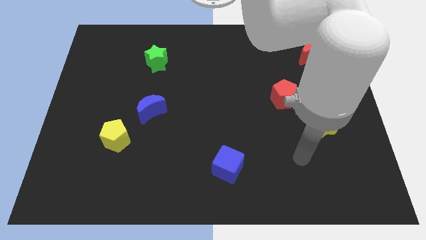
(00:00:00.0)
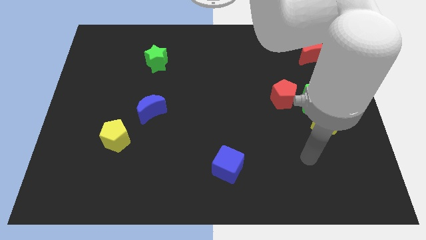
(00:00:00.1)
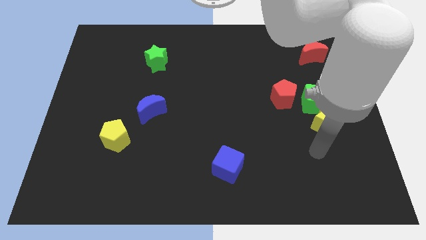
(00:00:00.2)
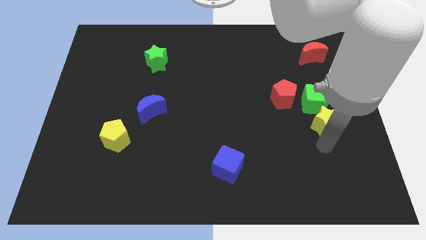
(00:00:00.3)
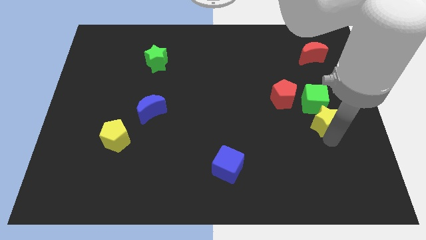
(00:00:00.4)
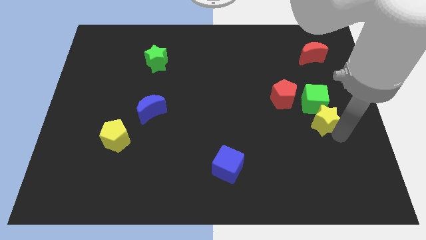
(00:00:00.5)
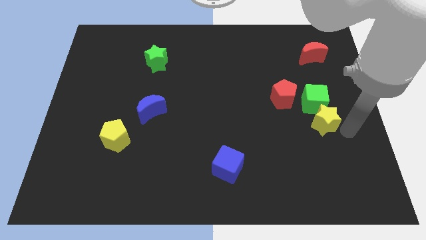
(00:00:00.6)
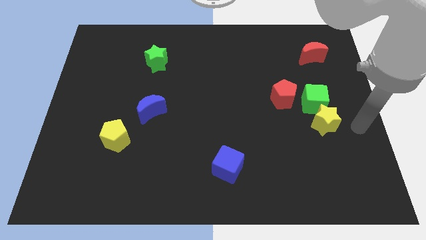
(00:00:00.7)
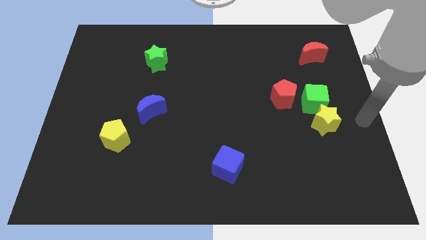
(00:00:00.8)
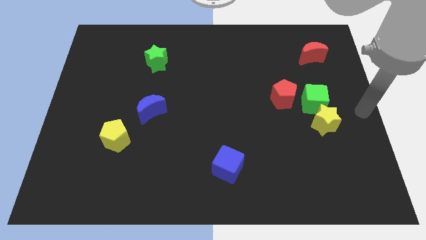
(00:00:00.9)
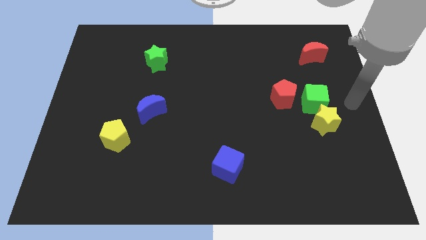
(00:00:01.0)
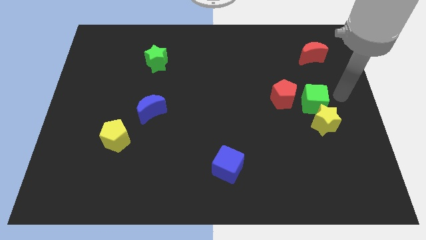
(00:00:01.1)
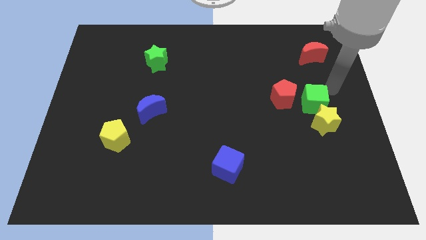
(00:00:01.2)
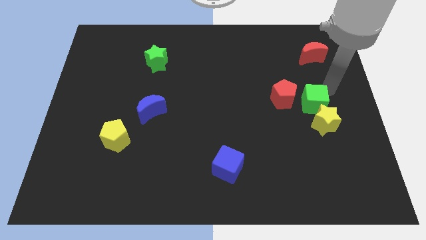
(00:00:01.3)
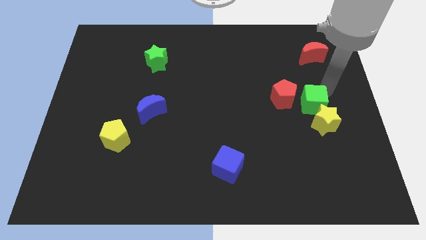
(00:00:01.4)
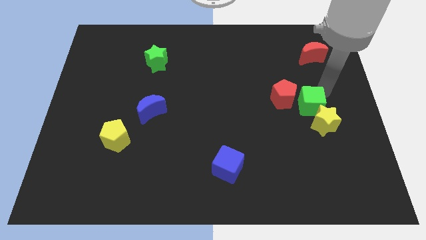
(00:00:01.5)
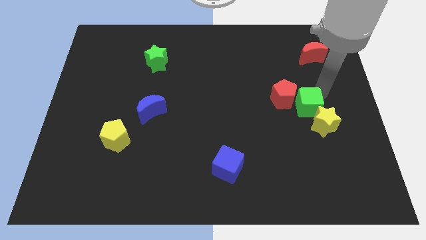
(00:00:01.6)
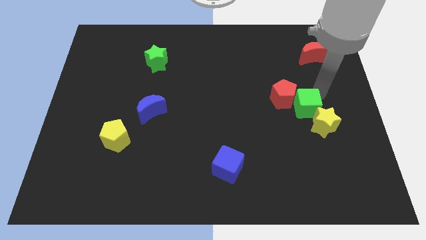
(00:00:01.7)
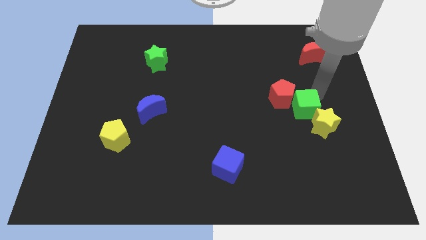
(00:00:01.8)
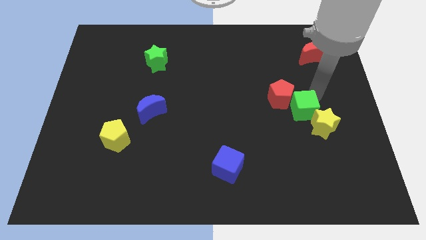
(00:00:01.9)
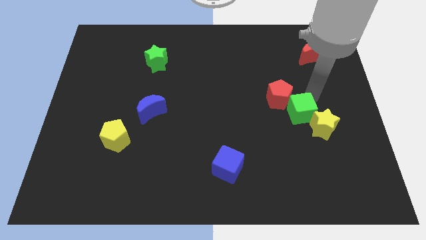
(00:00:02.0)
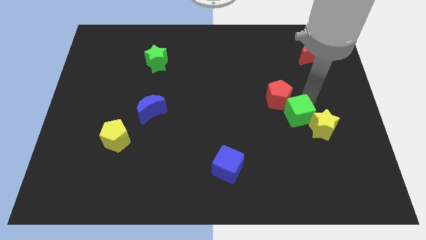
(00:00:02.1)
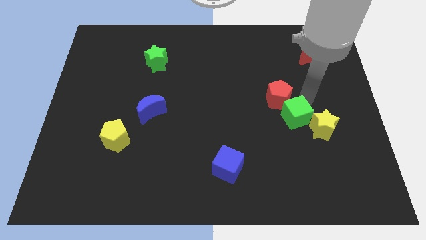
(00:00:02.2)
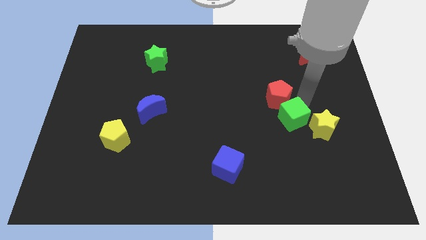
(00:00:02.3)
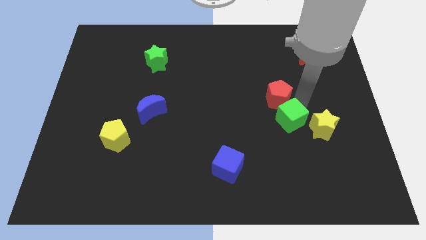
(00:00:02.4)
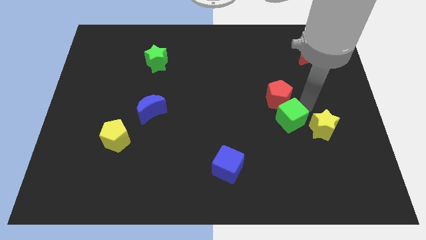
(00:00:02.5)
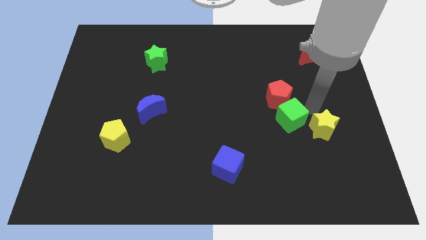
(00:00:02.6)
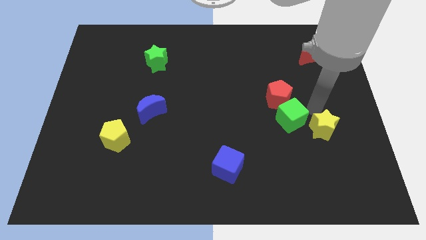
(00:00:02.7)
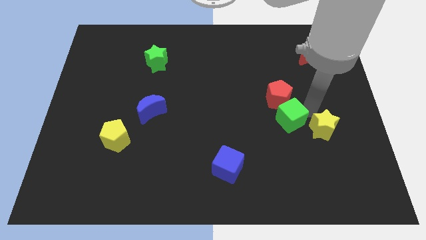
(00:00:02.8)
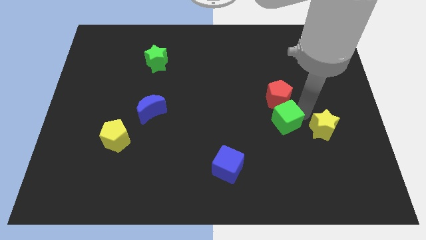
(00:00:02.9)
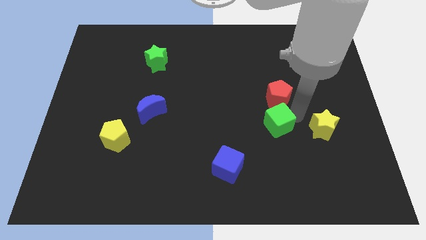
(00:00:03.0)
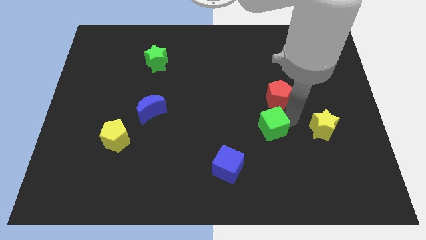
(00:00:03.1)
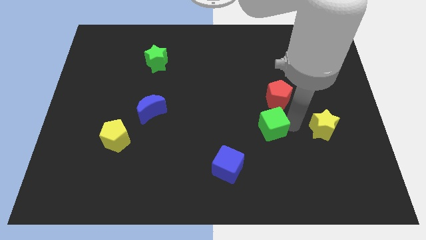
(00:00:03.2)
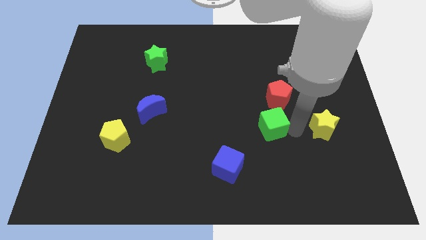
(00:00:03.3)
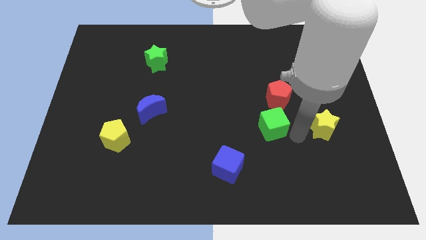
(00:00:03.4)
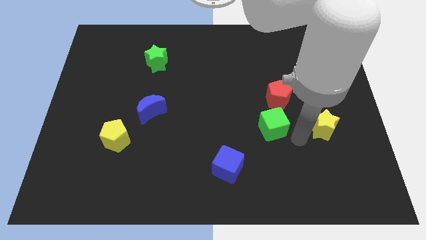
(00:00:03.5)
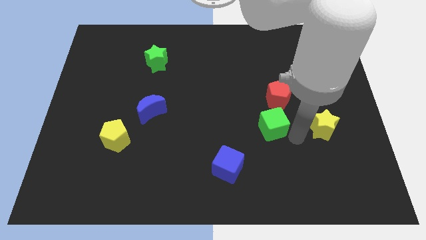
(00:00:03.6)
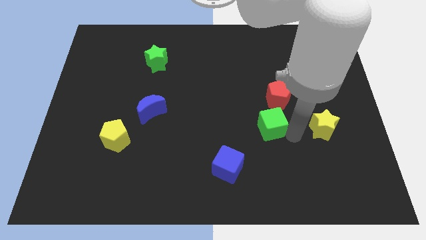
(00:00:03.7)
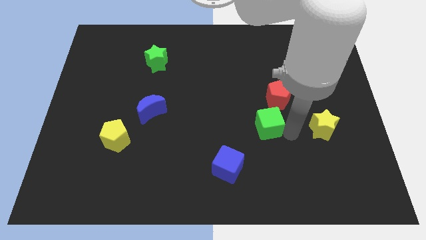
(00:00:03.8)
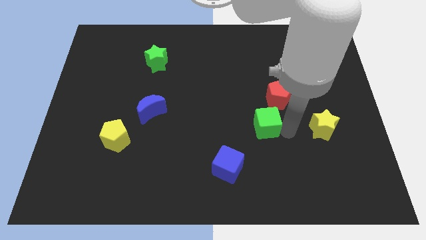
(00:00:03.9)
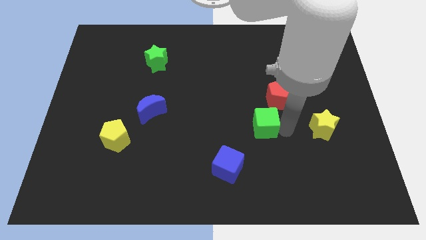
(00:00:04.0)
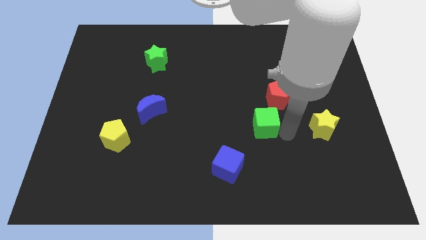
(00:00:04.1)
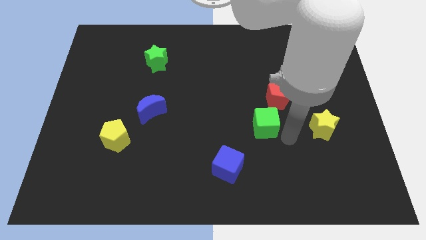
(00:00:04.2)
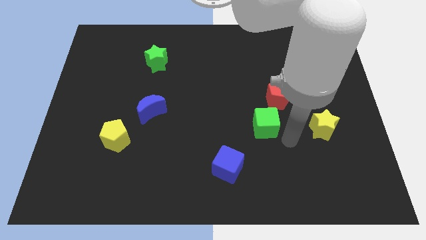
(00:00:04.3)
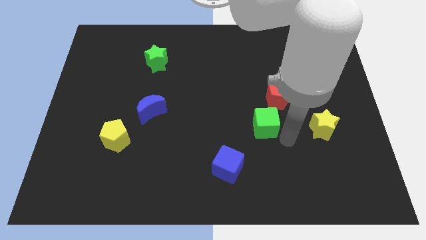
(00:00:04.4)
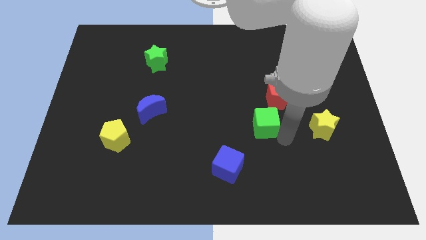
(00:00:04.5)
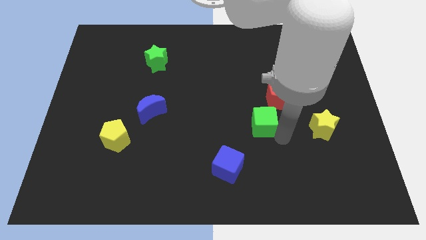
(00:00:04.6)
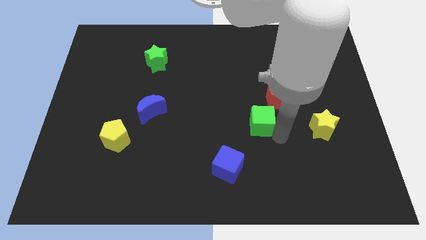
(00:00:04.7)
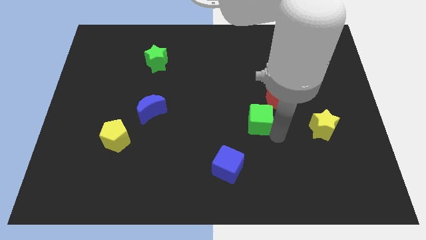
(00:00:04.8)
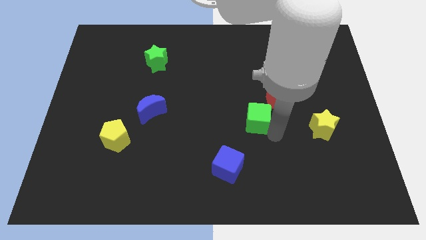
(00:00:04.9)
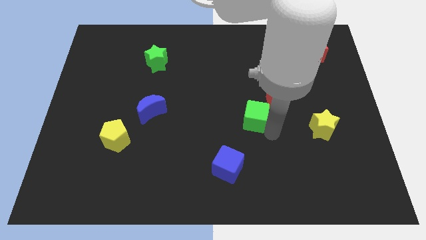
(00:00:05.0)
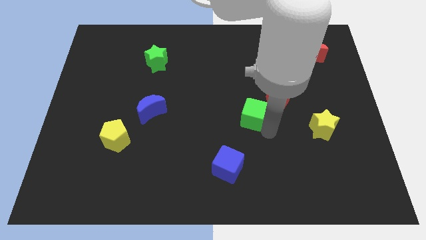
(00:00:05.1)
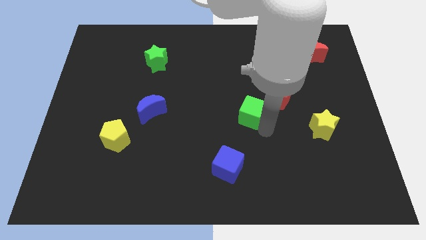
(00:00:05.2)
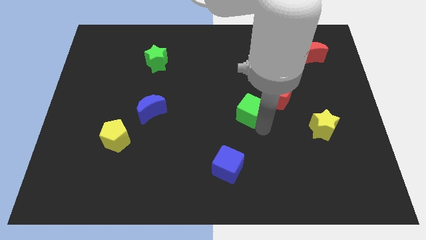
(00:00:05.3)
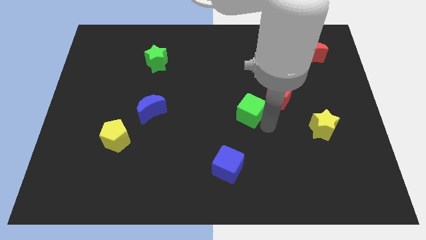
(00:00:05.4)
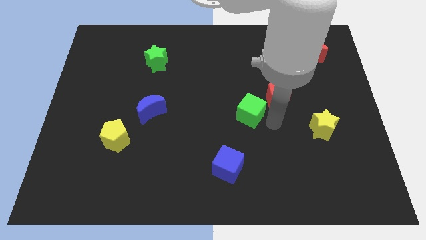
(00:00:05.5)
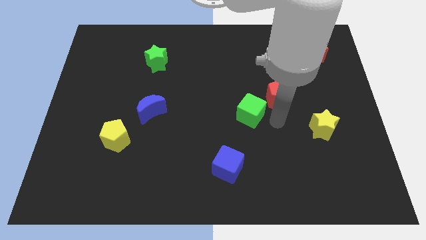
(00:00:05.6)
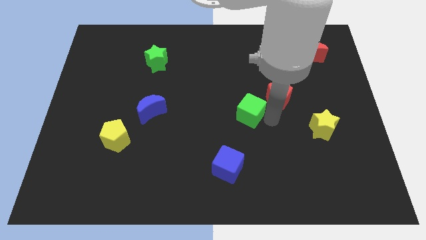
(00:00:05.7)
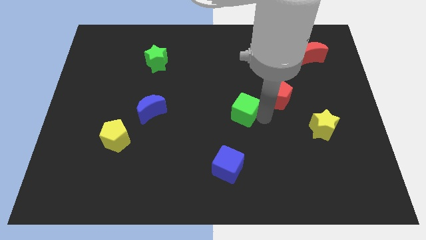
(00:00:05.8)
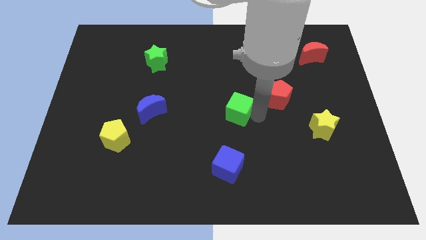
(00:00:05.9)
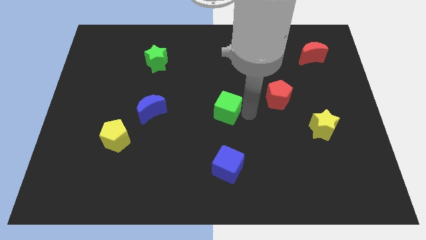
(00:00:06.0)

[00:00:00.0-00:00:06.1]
push the green cube left

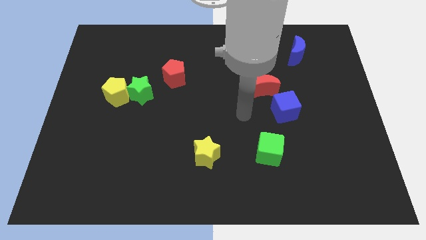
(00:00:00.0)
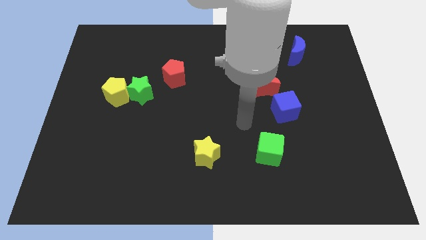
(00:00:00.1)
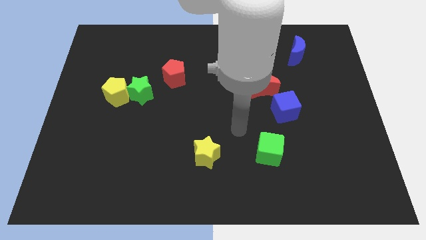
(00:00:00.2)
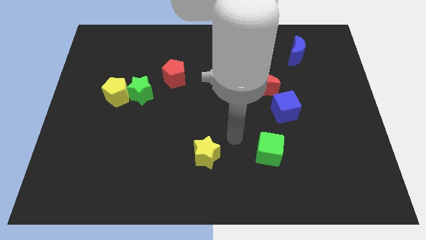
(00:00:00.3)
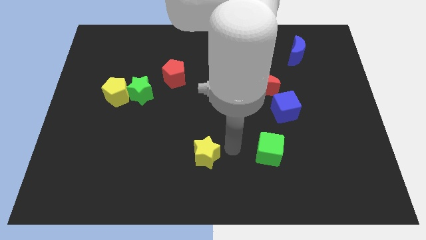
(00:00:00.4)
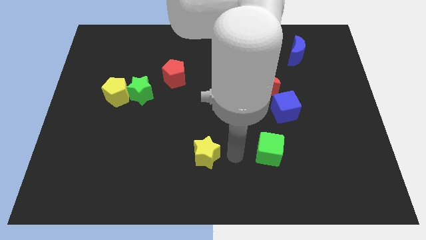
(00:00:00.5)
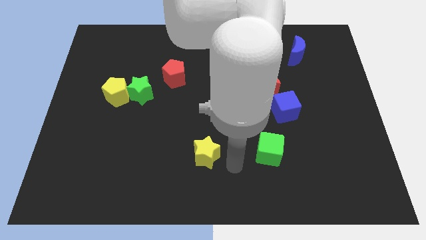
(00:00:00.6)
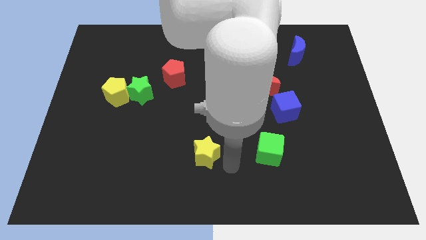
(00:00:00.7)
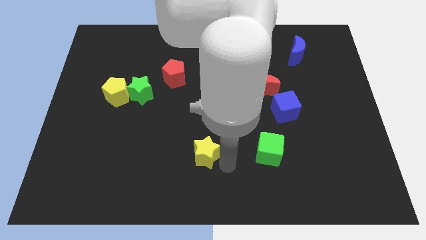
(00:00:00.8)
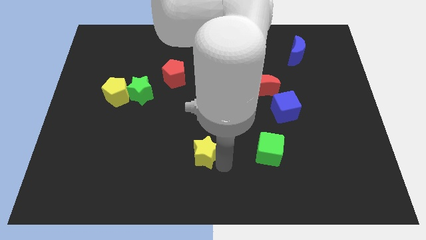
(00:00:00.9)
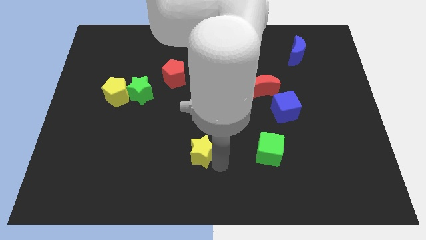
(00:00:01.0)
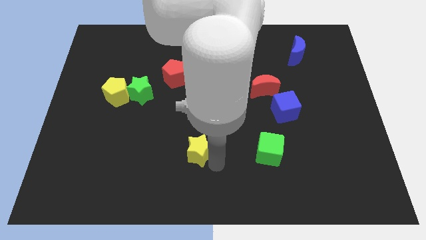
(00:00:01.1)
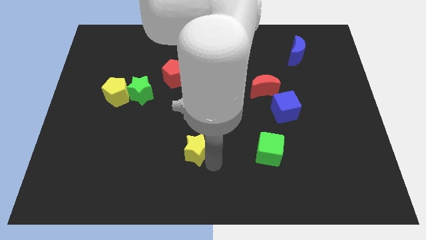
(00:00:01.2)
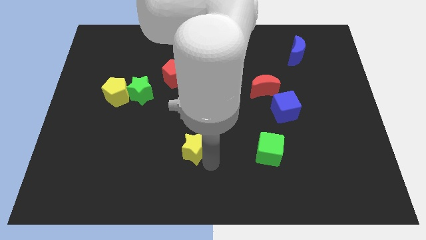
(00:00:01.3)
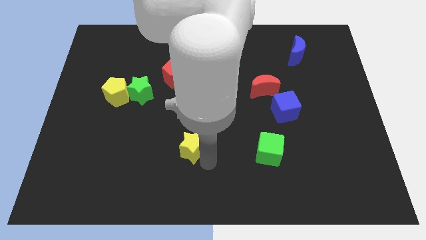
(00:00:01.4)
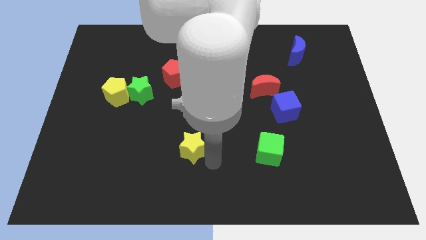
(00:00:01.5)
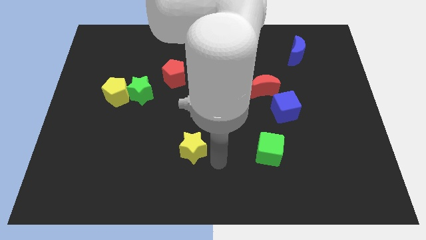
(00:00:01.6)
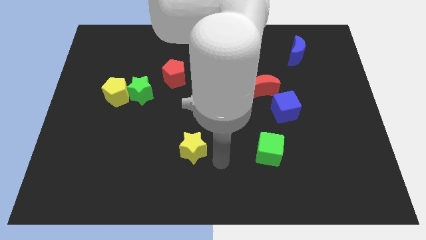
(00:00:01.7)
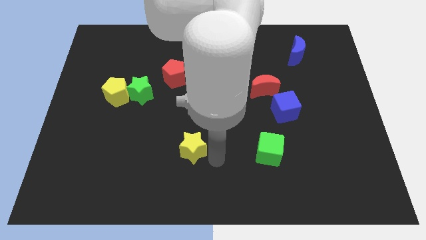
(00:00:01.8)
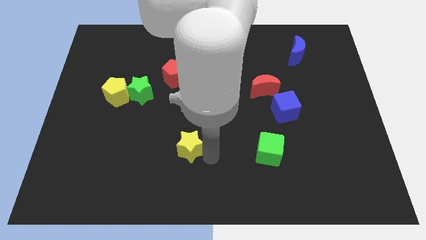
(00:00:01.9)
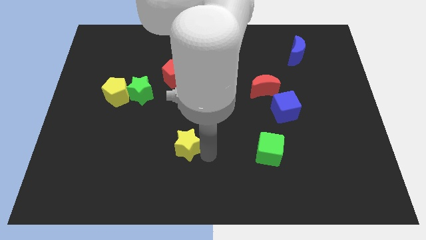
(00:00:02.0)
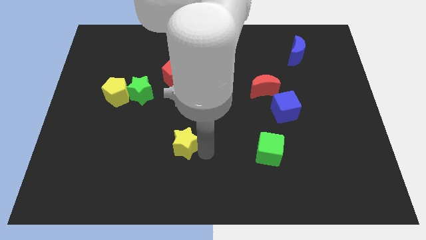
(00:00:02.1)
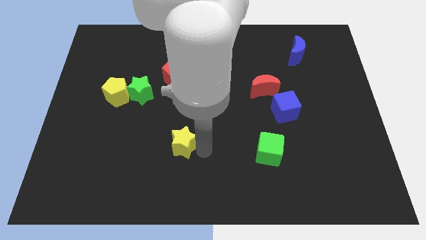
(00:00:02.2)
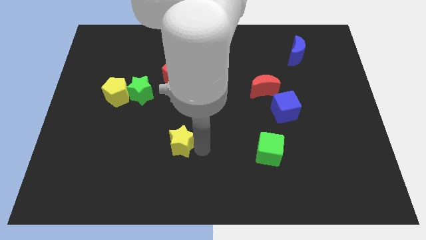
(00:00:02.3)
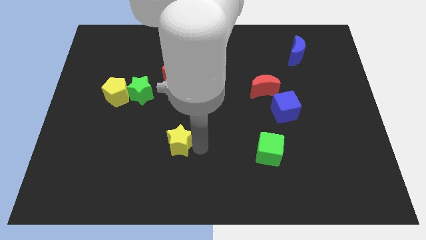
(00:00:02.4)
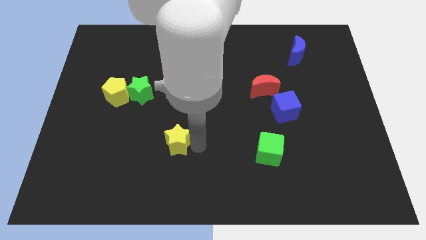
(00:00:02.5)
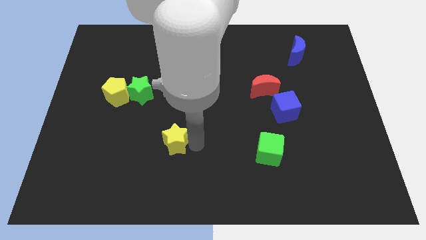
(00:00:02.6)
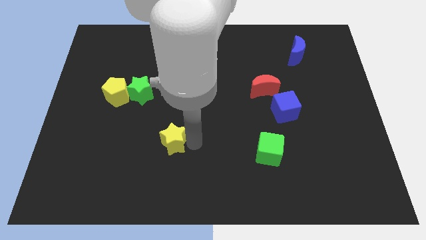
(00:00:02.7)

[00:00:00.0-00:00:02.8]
slide the yellow star left slightly
